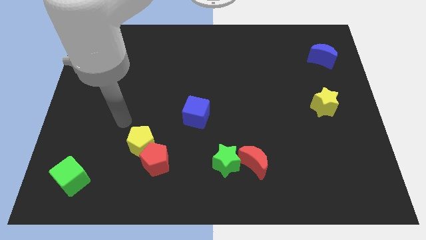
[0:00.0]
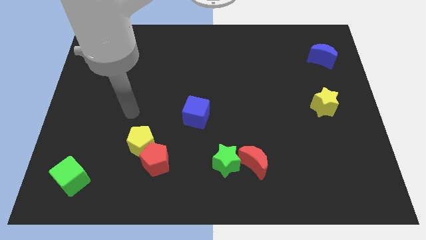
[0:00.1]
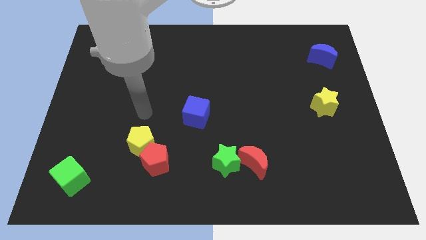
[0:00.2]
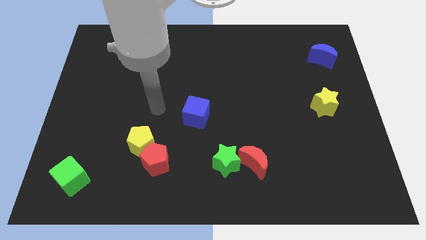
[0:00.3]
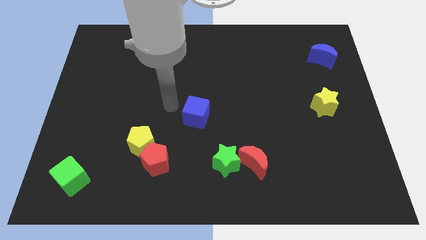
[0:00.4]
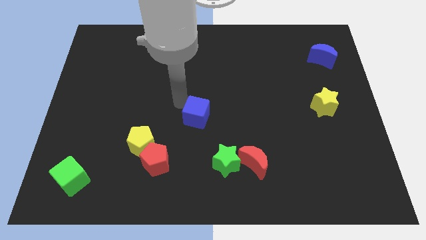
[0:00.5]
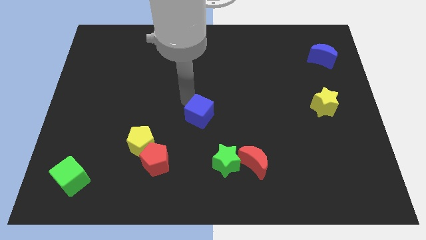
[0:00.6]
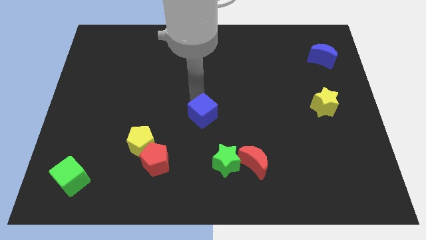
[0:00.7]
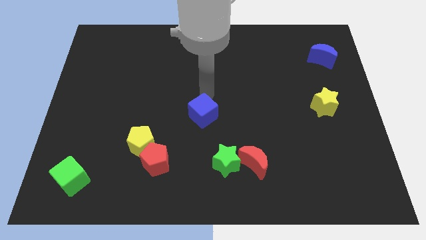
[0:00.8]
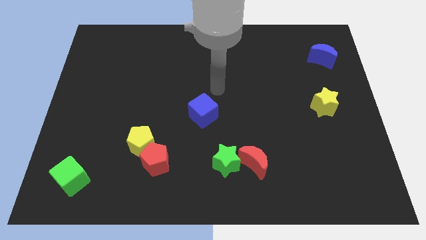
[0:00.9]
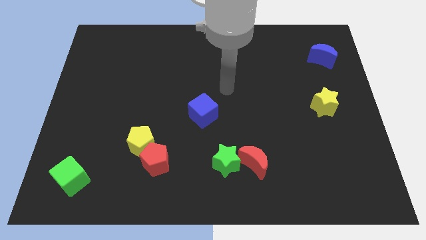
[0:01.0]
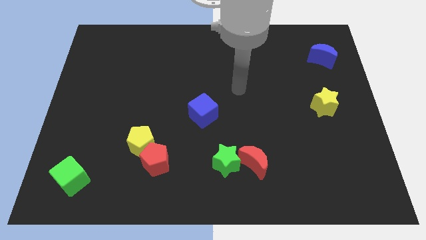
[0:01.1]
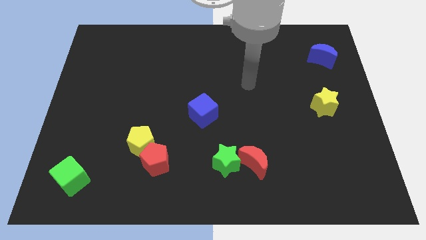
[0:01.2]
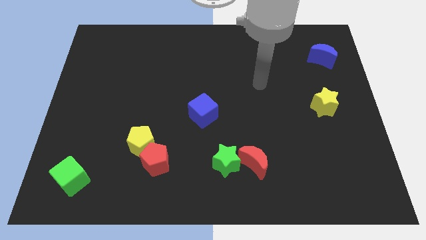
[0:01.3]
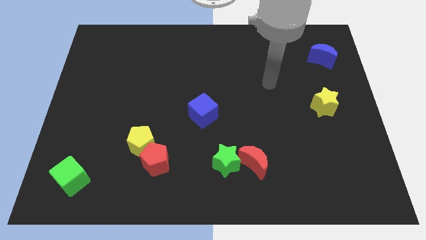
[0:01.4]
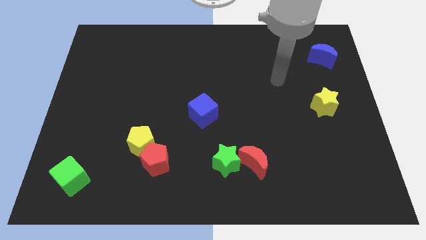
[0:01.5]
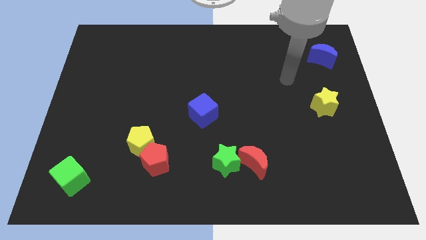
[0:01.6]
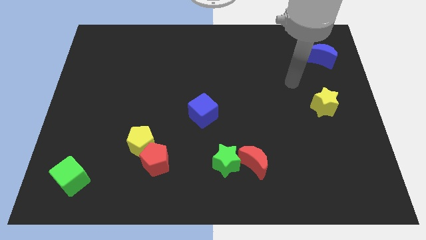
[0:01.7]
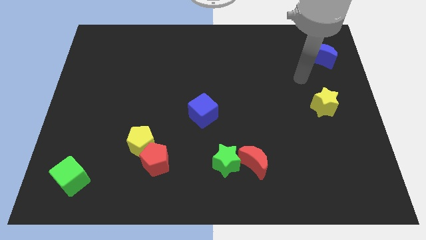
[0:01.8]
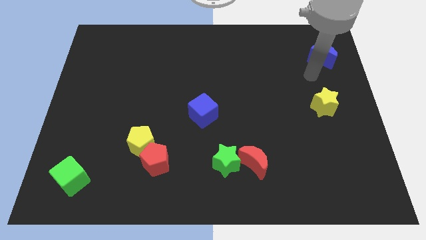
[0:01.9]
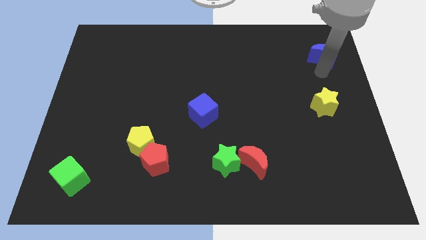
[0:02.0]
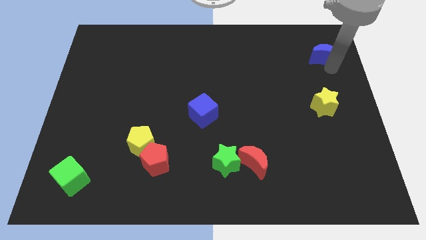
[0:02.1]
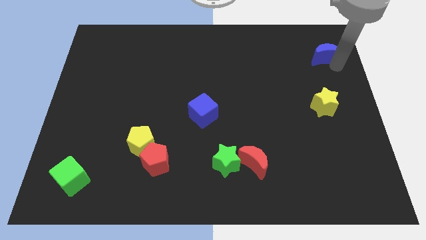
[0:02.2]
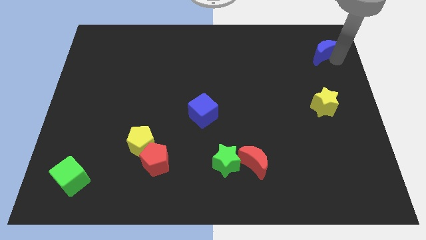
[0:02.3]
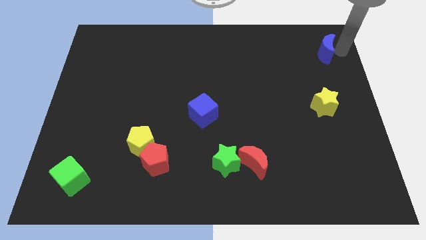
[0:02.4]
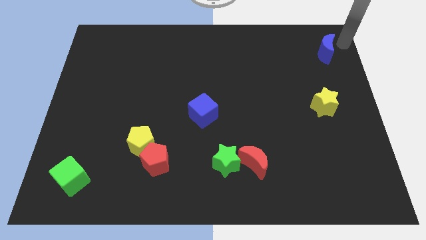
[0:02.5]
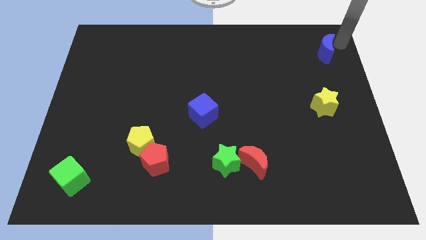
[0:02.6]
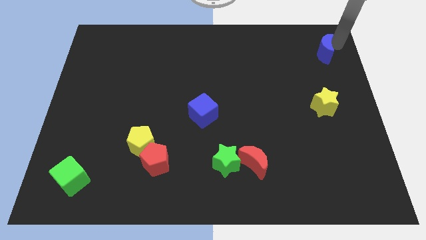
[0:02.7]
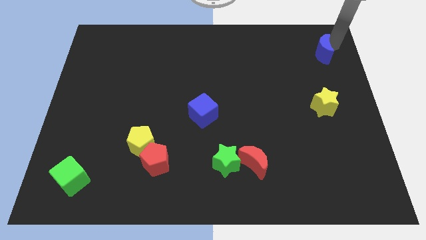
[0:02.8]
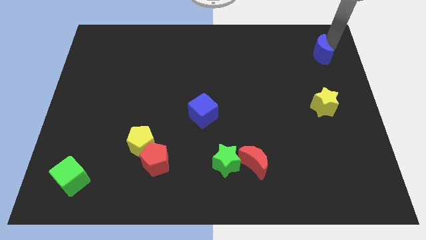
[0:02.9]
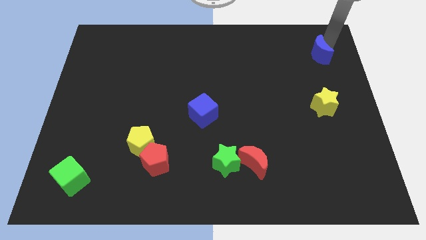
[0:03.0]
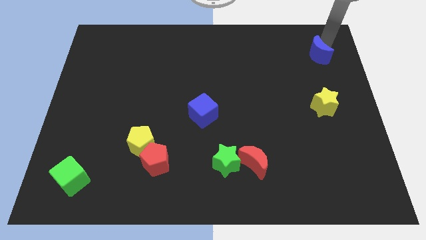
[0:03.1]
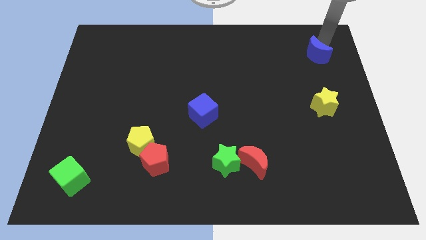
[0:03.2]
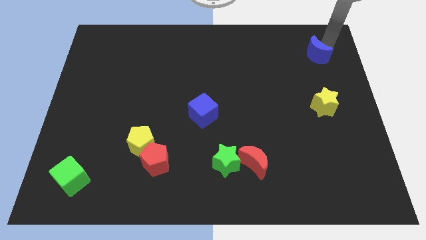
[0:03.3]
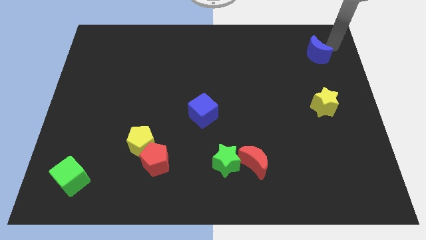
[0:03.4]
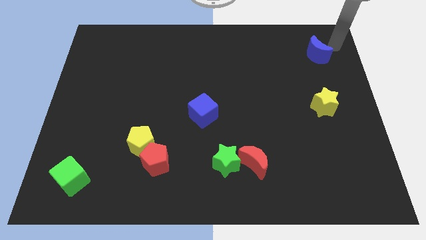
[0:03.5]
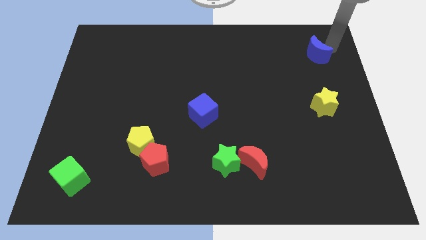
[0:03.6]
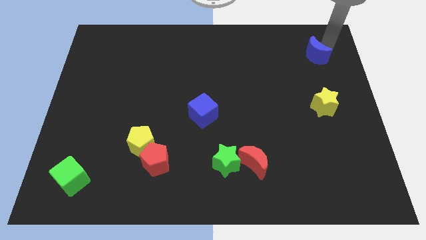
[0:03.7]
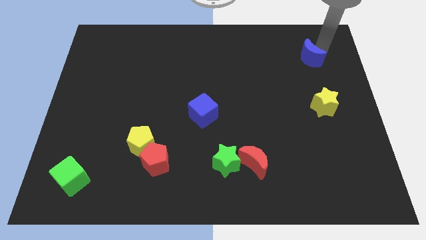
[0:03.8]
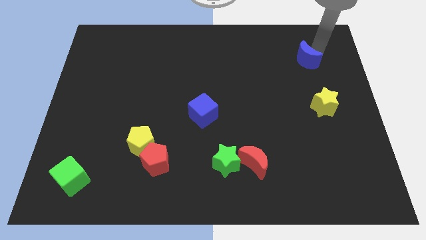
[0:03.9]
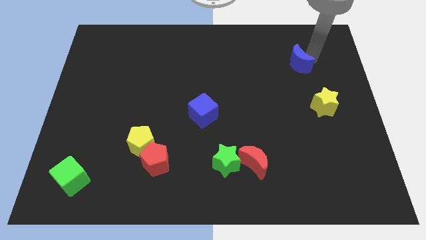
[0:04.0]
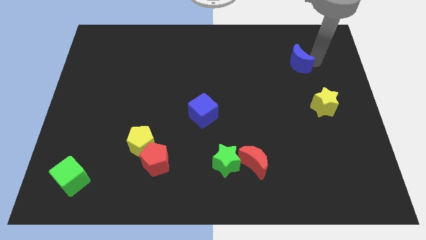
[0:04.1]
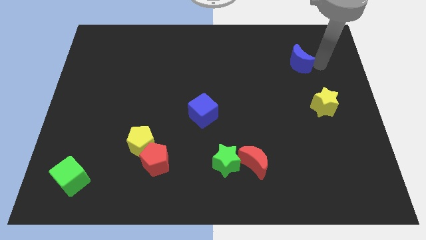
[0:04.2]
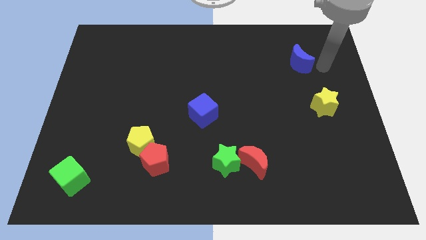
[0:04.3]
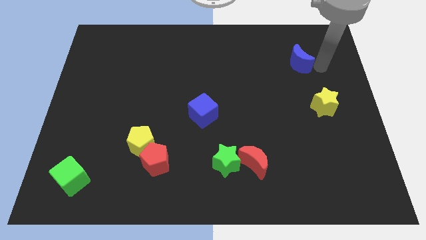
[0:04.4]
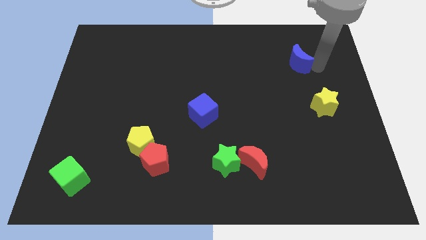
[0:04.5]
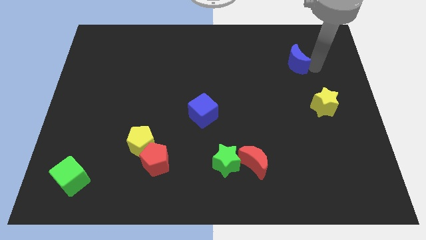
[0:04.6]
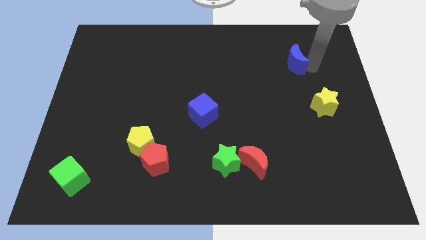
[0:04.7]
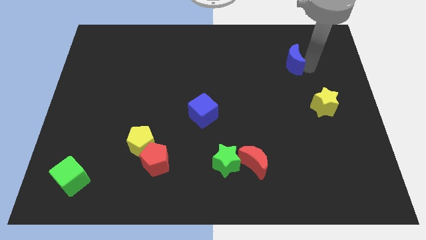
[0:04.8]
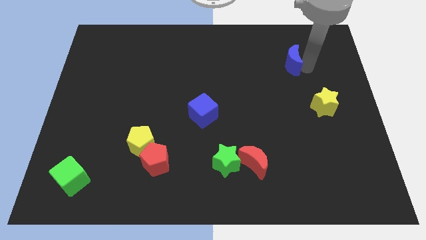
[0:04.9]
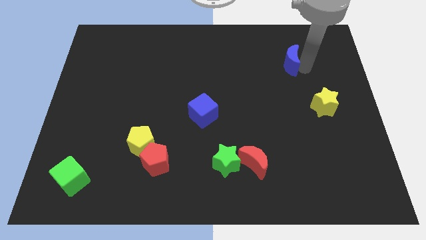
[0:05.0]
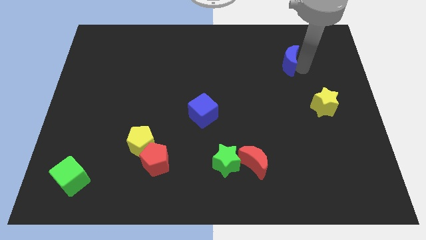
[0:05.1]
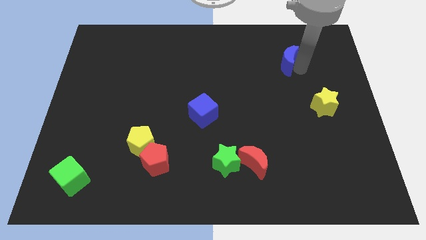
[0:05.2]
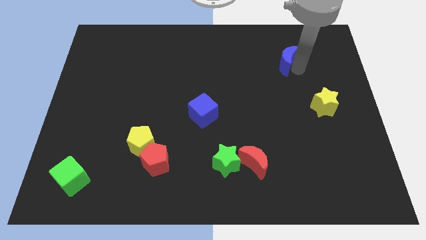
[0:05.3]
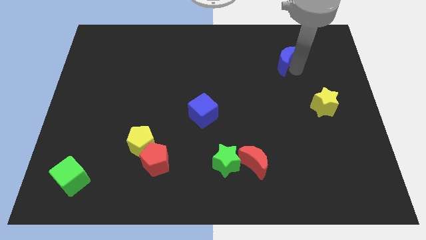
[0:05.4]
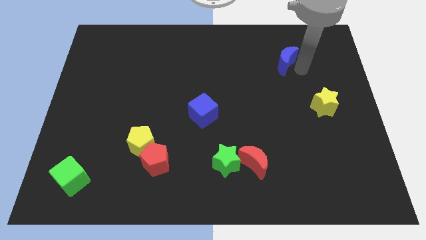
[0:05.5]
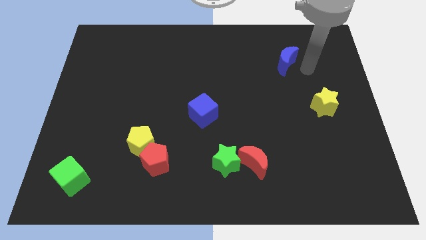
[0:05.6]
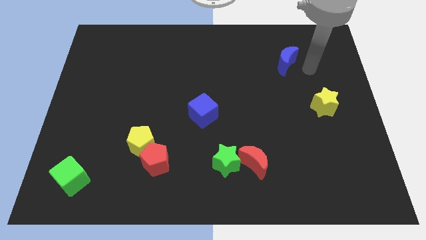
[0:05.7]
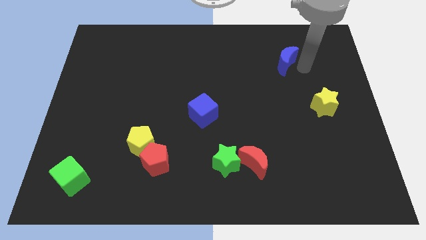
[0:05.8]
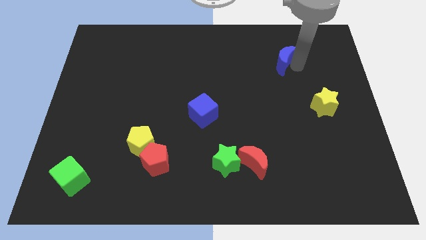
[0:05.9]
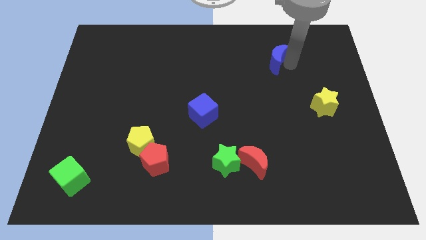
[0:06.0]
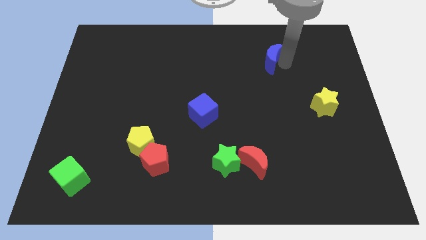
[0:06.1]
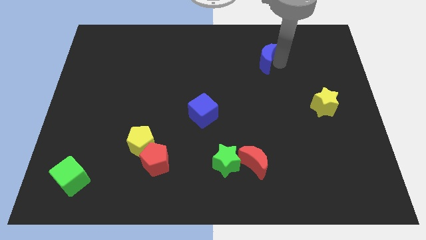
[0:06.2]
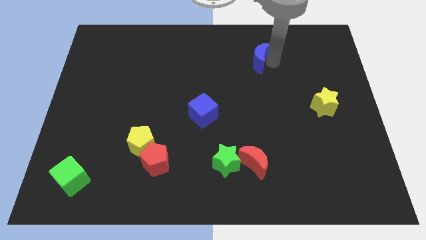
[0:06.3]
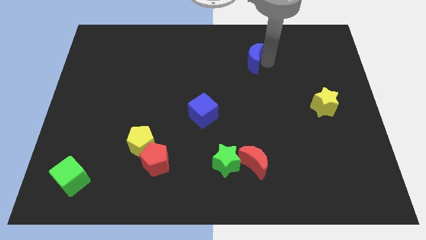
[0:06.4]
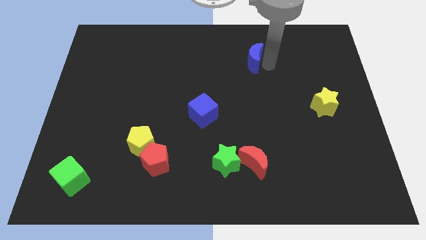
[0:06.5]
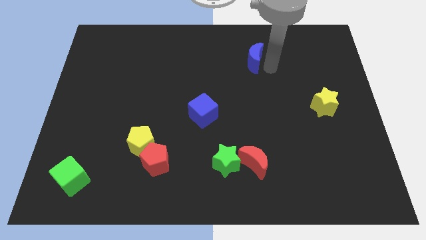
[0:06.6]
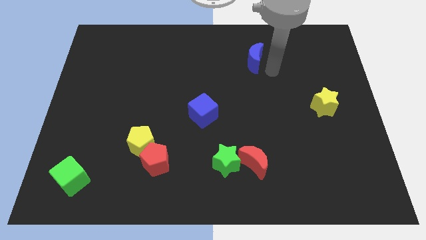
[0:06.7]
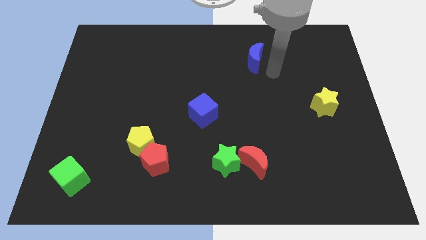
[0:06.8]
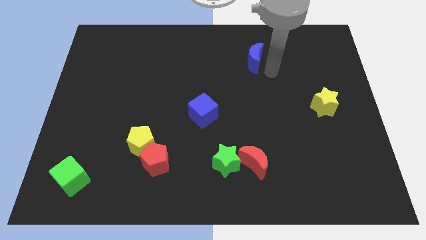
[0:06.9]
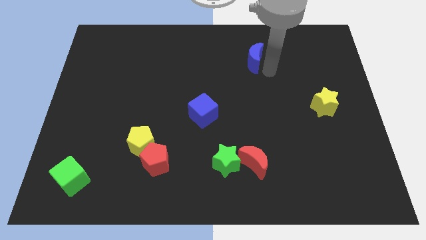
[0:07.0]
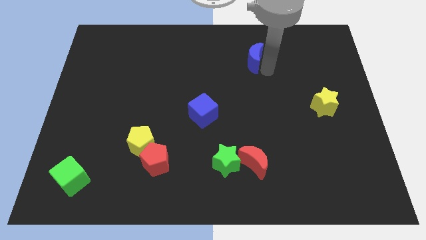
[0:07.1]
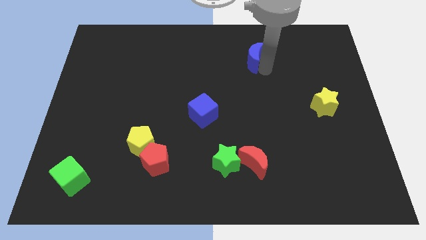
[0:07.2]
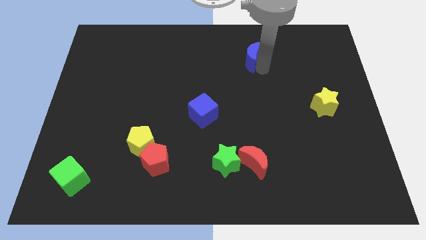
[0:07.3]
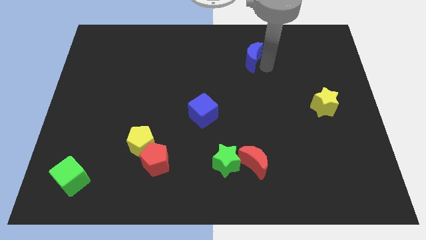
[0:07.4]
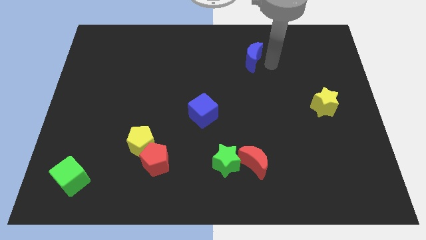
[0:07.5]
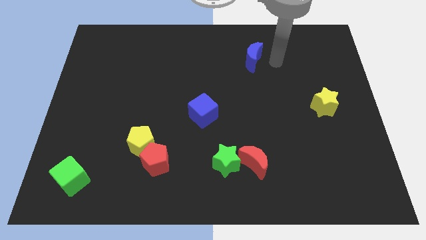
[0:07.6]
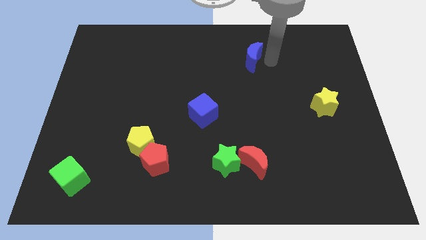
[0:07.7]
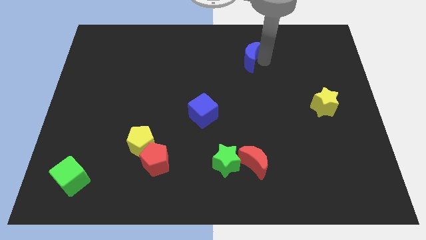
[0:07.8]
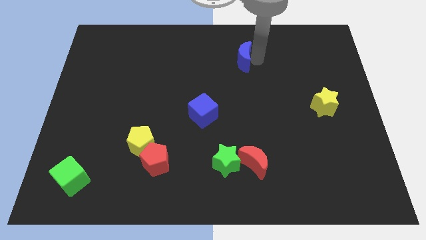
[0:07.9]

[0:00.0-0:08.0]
push the blue moon left
